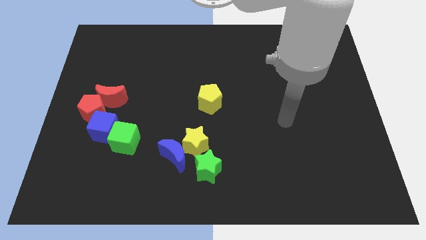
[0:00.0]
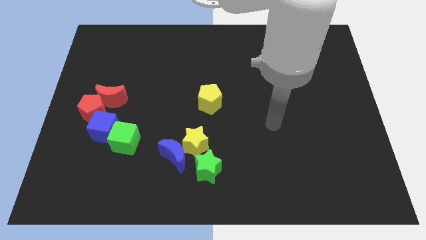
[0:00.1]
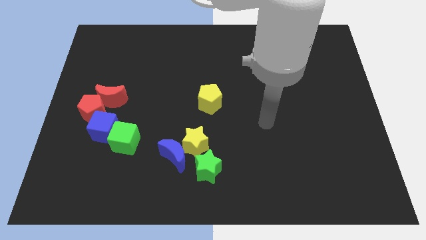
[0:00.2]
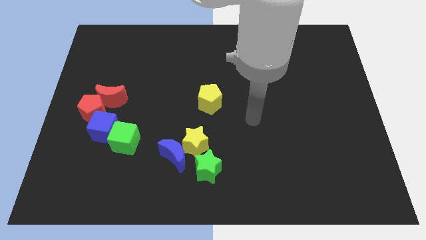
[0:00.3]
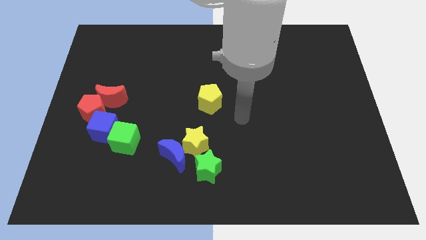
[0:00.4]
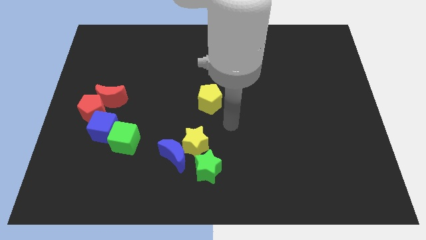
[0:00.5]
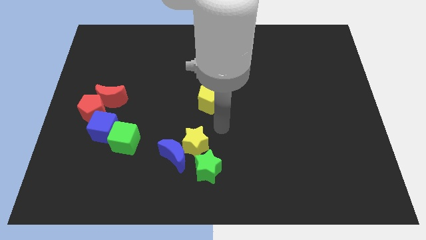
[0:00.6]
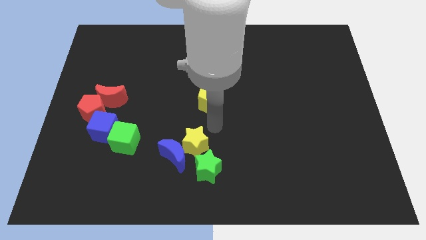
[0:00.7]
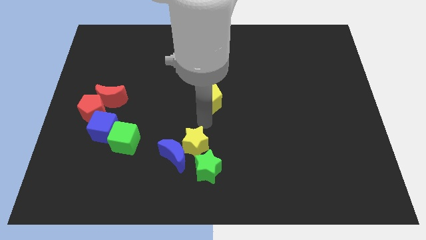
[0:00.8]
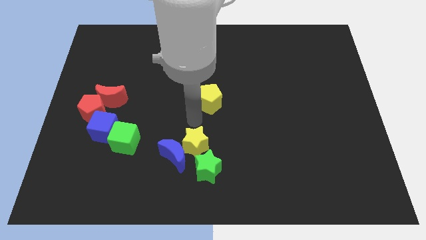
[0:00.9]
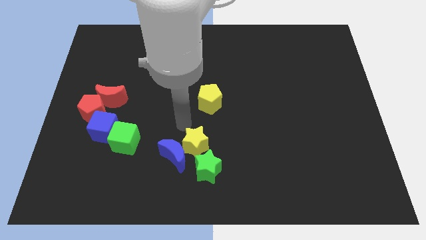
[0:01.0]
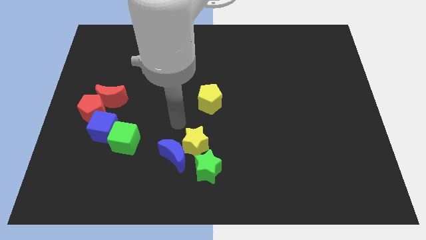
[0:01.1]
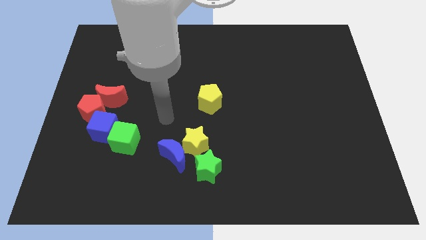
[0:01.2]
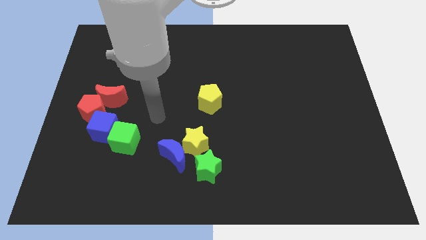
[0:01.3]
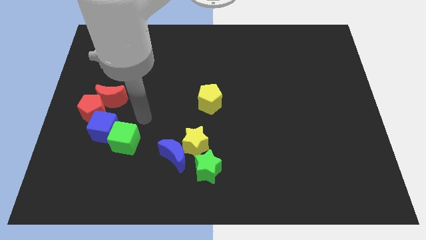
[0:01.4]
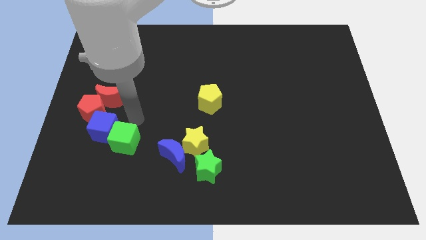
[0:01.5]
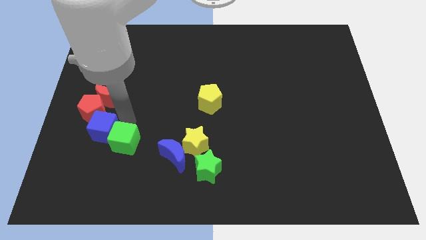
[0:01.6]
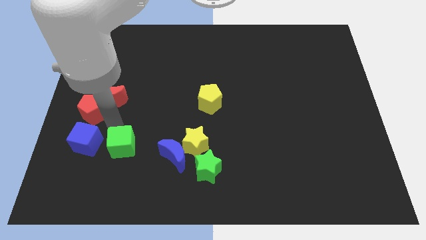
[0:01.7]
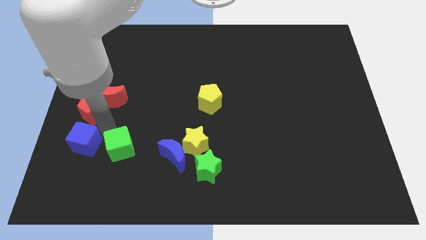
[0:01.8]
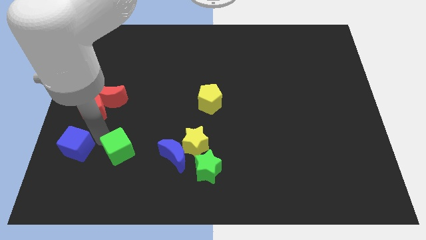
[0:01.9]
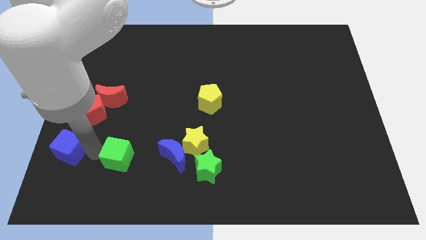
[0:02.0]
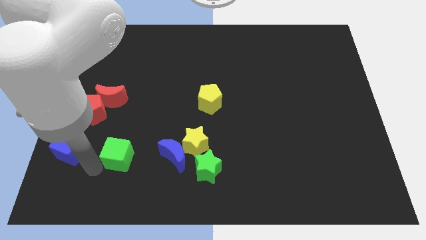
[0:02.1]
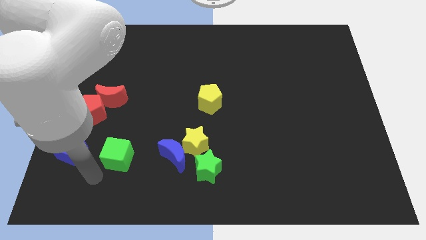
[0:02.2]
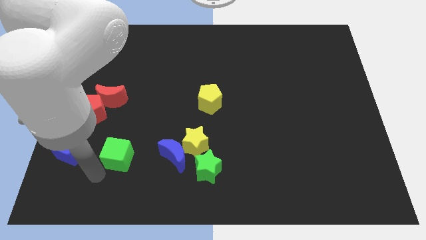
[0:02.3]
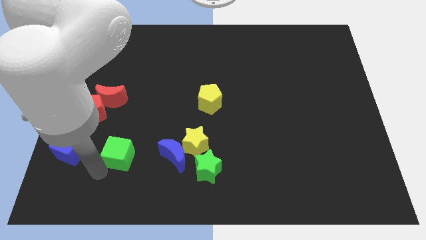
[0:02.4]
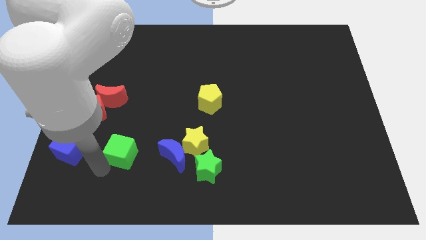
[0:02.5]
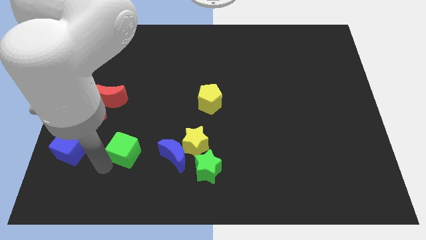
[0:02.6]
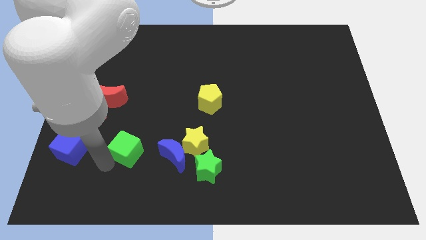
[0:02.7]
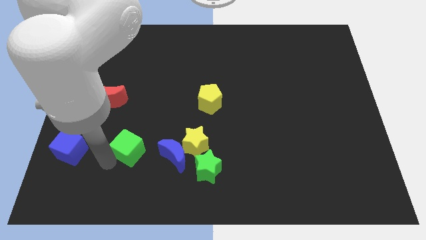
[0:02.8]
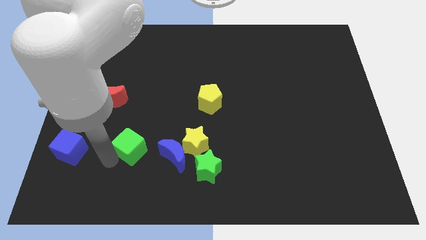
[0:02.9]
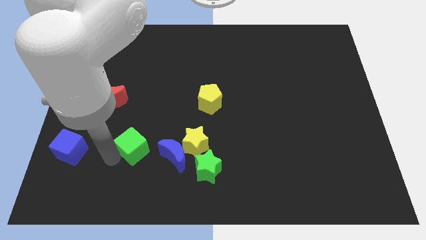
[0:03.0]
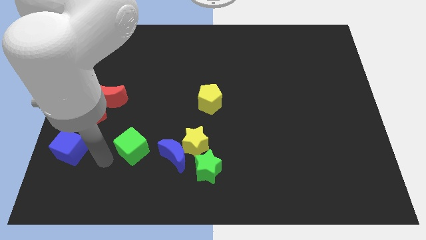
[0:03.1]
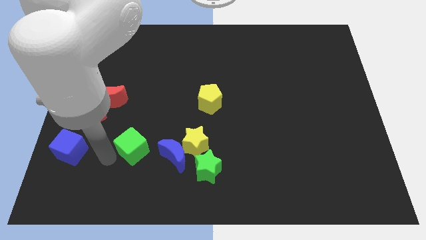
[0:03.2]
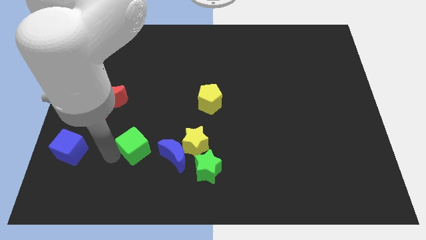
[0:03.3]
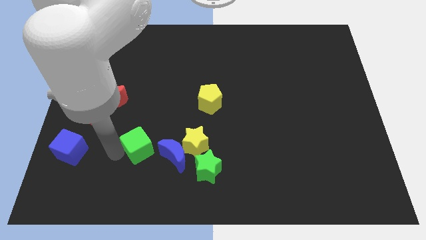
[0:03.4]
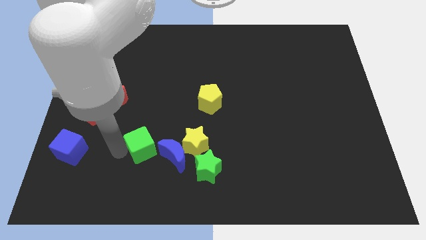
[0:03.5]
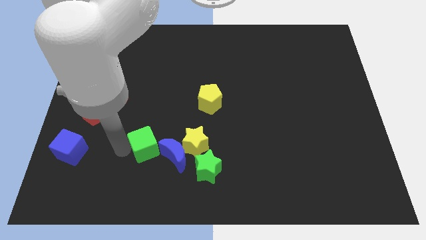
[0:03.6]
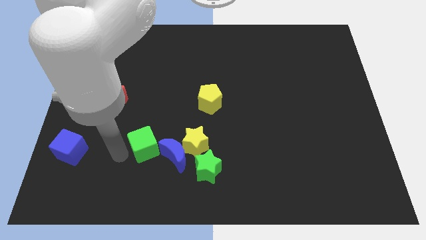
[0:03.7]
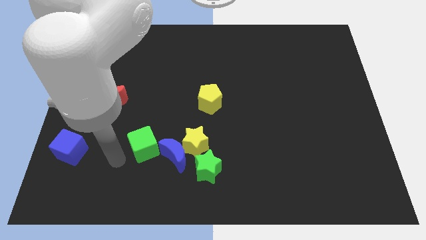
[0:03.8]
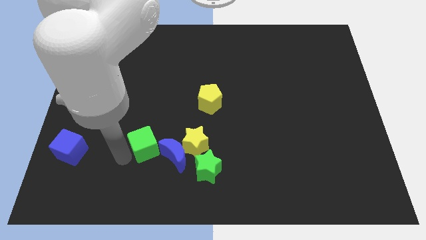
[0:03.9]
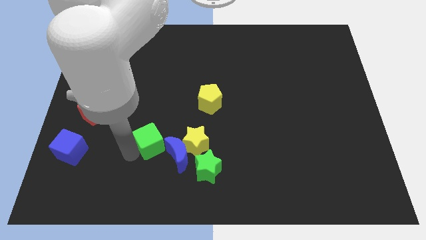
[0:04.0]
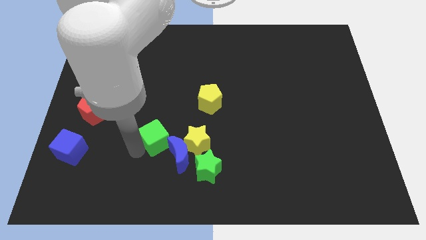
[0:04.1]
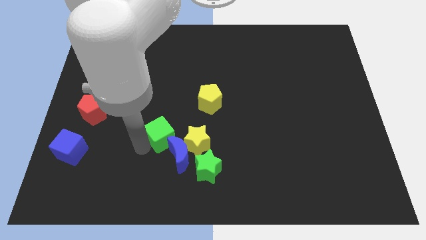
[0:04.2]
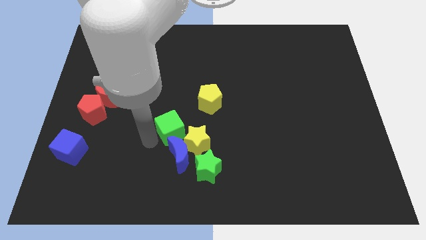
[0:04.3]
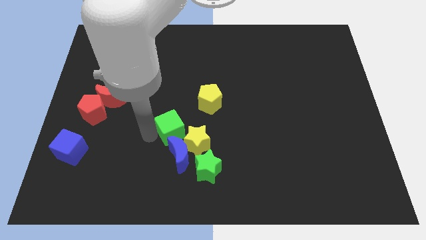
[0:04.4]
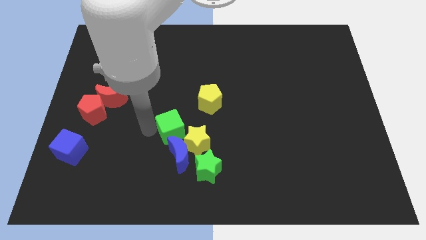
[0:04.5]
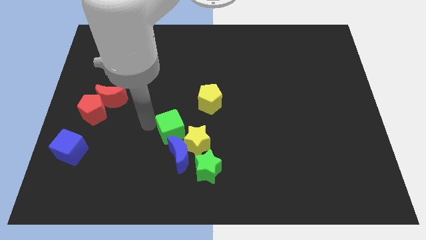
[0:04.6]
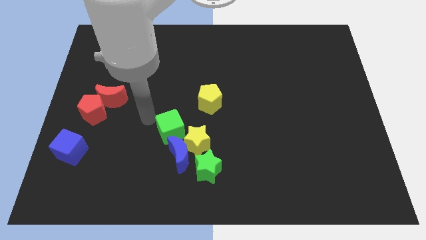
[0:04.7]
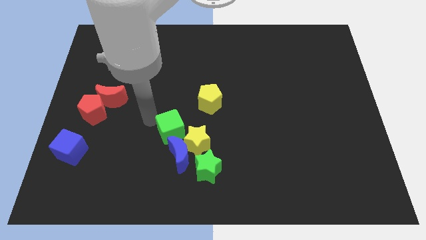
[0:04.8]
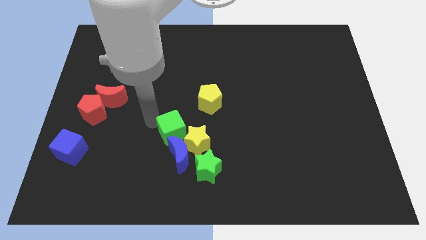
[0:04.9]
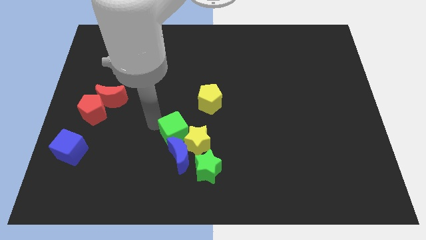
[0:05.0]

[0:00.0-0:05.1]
push the green cube next to the yellow star

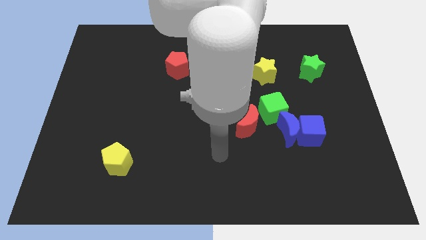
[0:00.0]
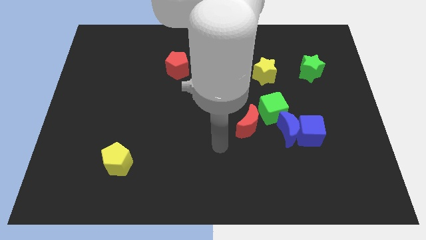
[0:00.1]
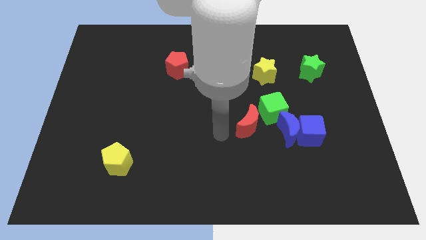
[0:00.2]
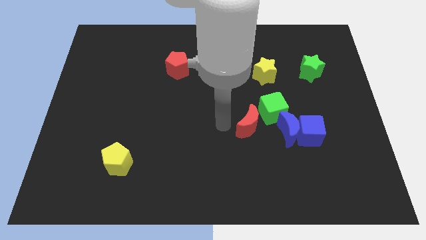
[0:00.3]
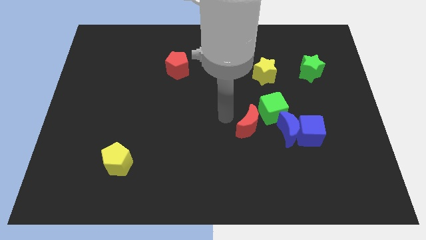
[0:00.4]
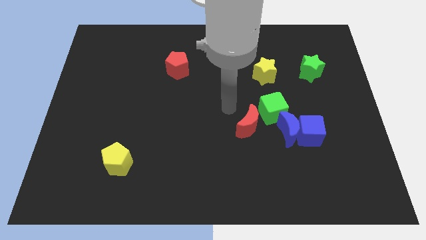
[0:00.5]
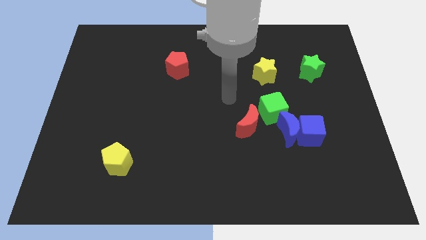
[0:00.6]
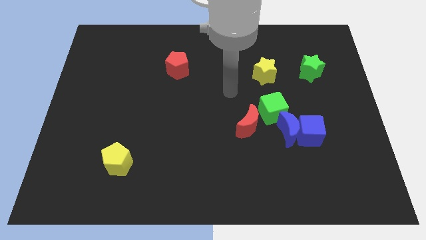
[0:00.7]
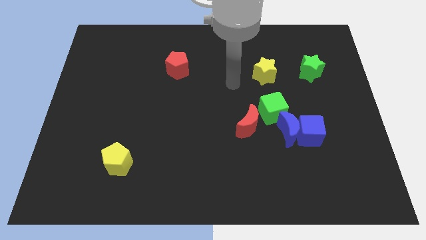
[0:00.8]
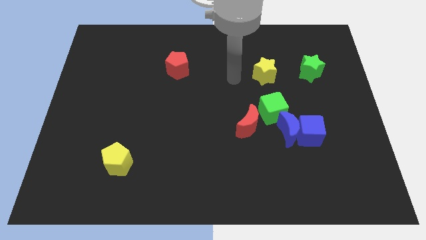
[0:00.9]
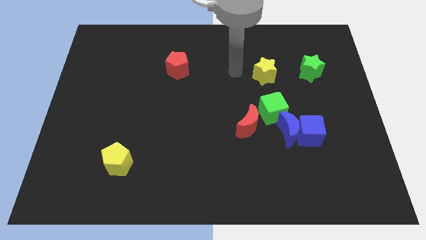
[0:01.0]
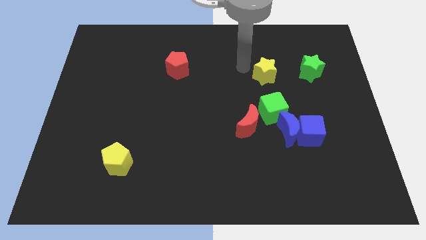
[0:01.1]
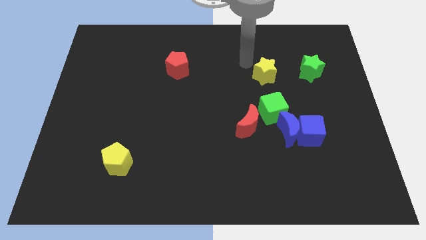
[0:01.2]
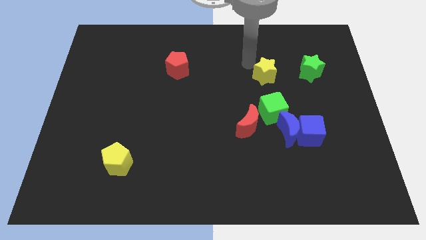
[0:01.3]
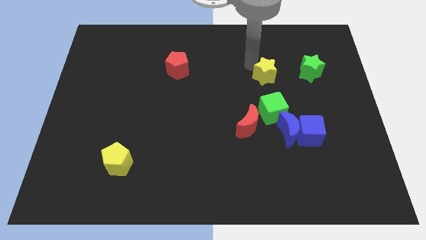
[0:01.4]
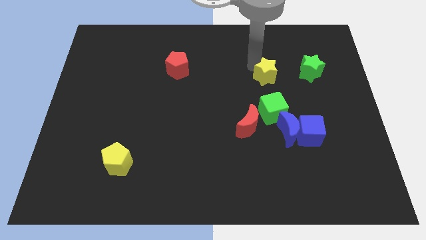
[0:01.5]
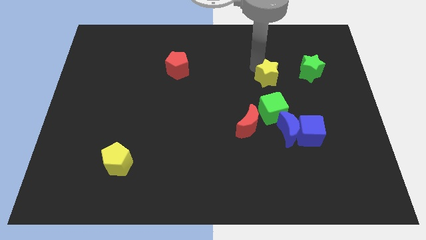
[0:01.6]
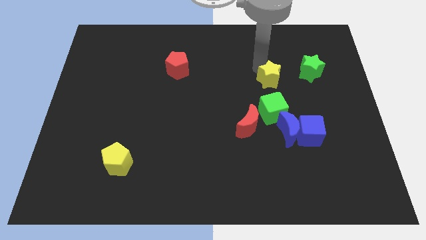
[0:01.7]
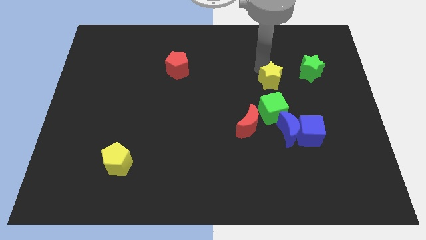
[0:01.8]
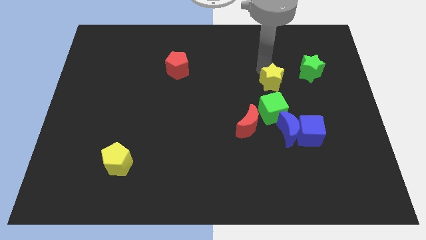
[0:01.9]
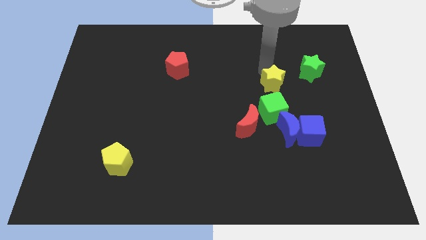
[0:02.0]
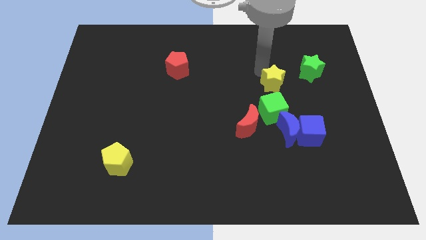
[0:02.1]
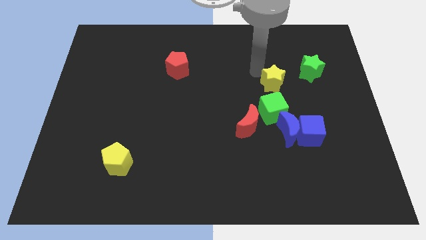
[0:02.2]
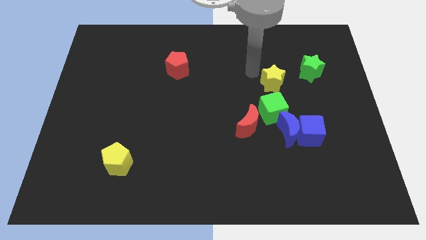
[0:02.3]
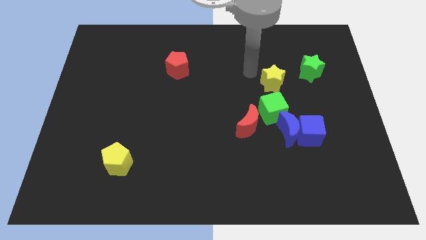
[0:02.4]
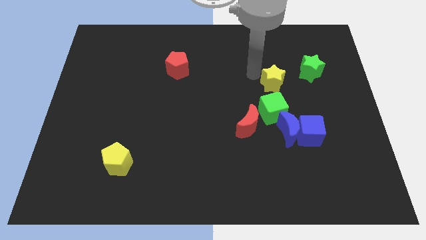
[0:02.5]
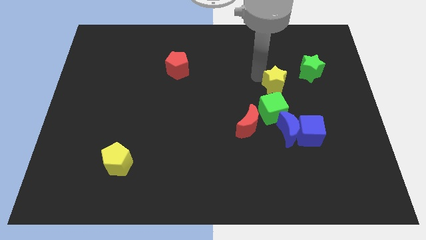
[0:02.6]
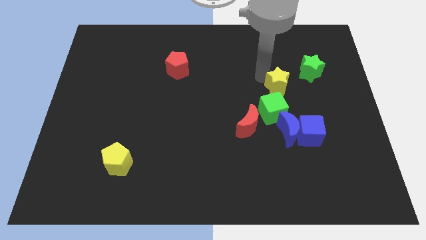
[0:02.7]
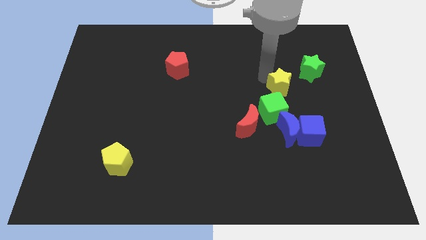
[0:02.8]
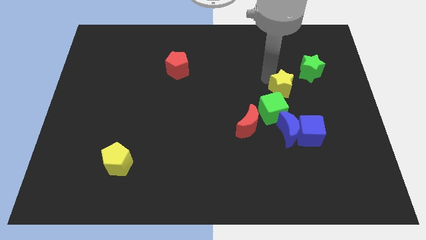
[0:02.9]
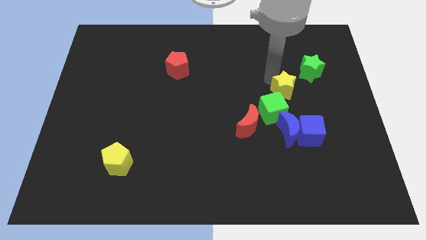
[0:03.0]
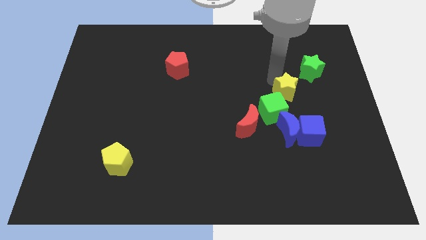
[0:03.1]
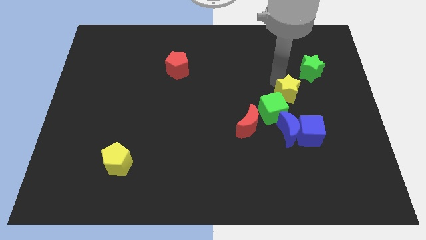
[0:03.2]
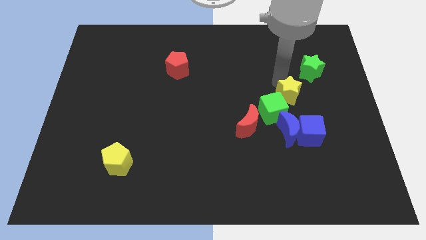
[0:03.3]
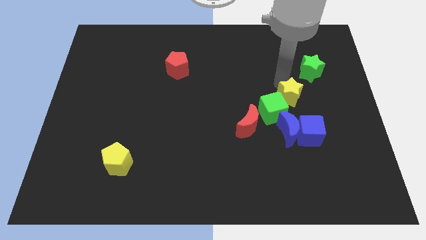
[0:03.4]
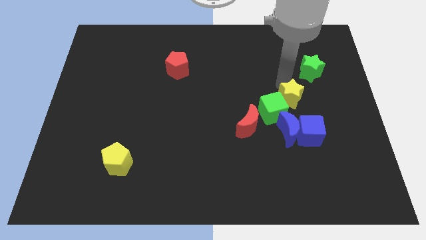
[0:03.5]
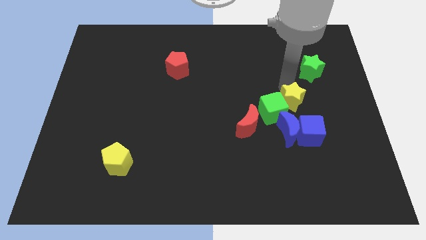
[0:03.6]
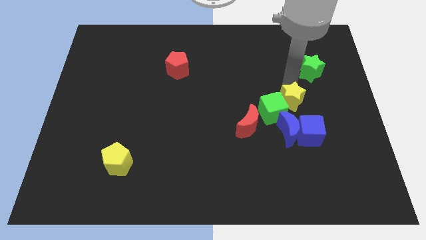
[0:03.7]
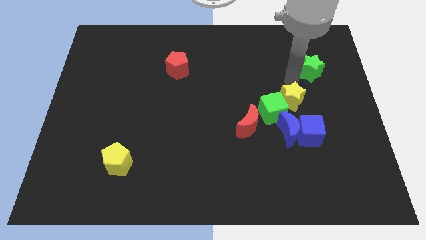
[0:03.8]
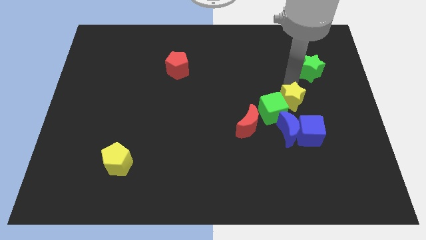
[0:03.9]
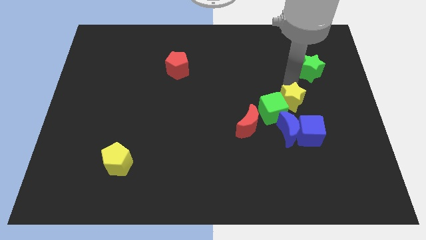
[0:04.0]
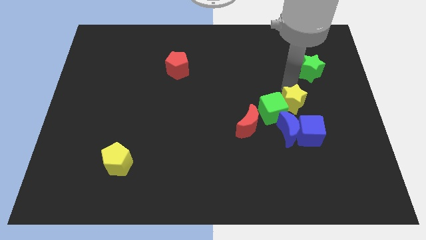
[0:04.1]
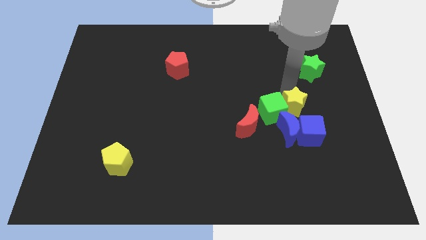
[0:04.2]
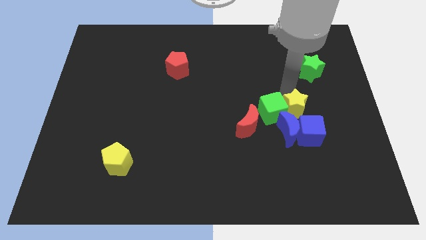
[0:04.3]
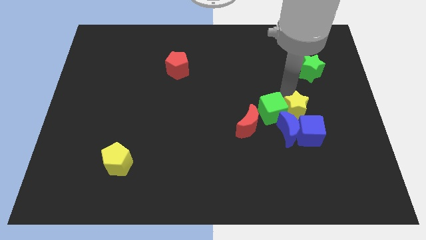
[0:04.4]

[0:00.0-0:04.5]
put the yellow star to the blue moon
